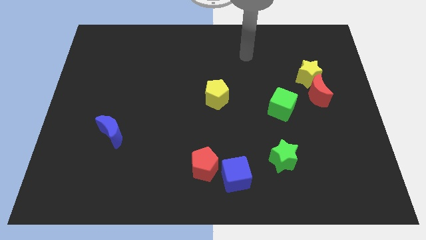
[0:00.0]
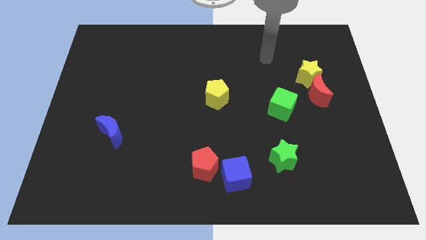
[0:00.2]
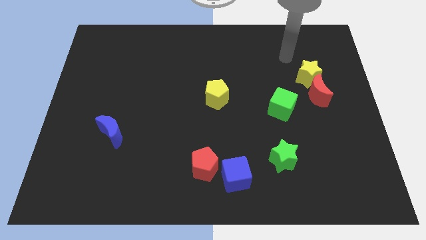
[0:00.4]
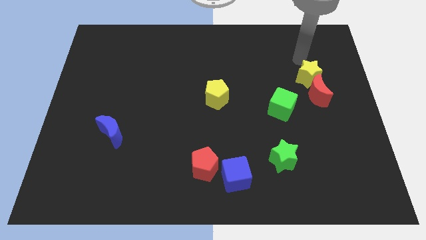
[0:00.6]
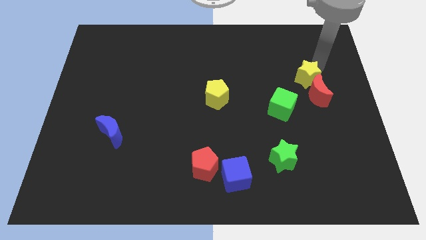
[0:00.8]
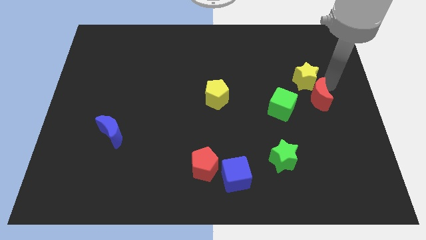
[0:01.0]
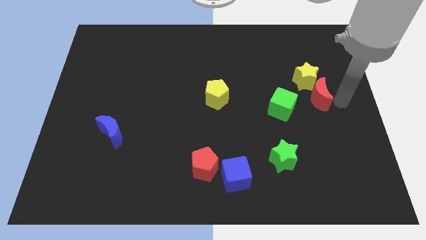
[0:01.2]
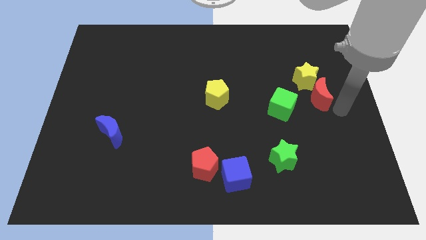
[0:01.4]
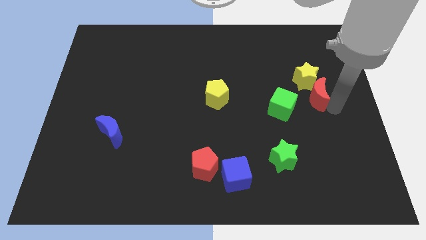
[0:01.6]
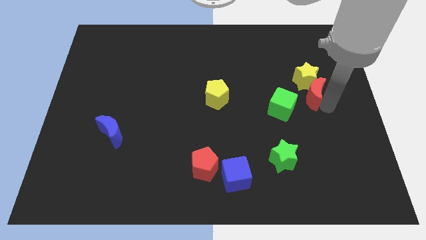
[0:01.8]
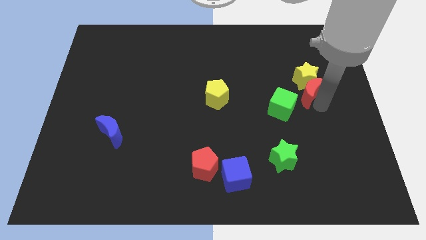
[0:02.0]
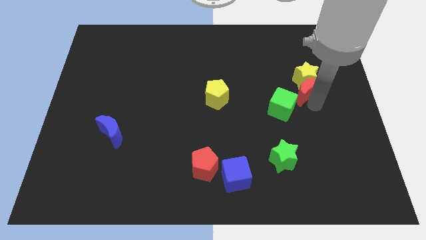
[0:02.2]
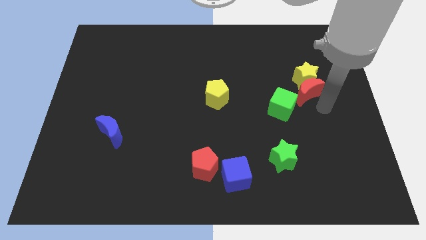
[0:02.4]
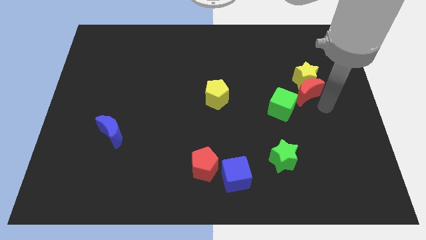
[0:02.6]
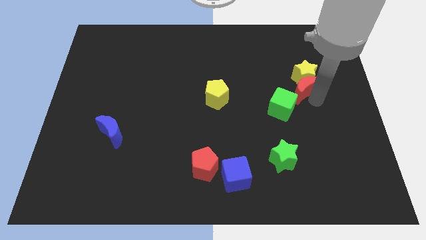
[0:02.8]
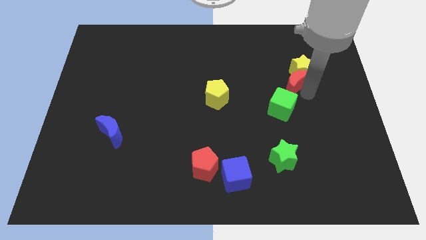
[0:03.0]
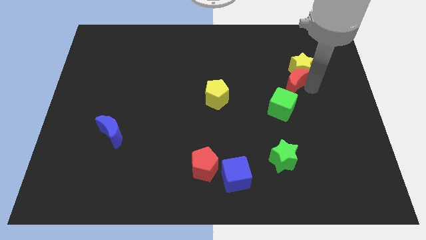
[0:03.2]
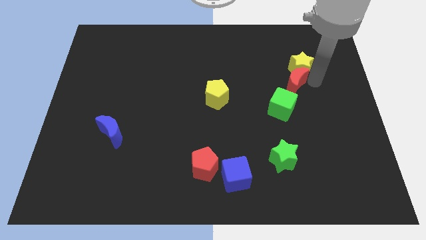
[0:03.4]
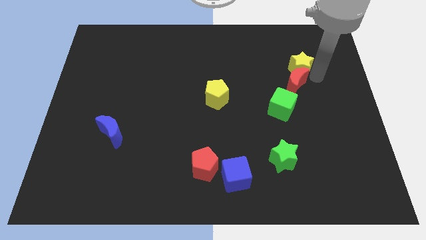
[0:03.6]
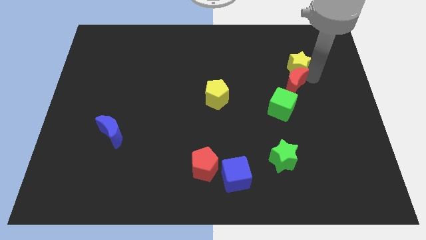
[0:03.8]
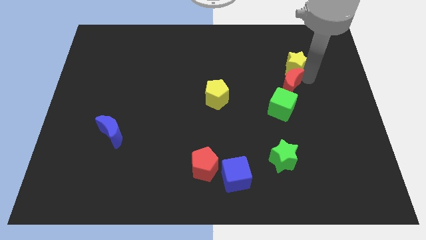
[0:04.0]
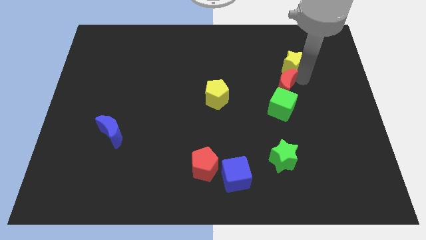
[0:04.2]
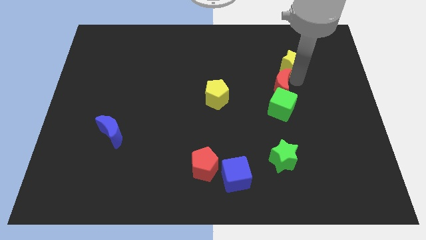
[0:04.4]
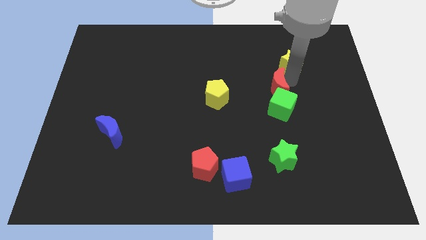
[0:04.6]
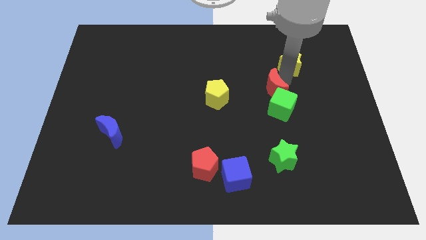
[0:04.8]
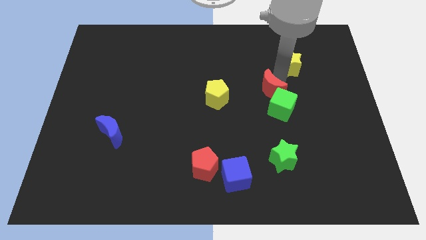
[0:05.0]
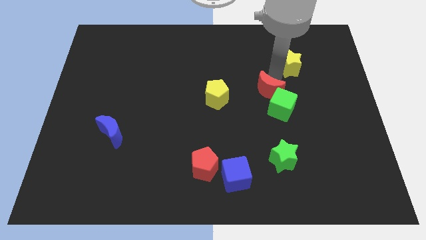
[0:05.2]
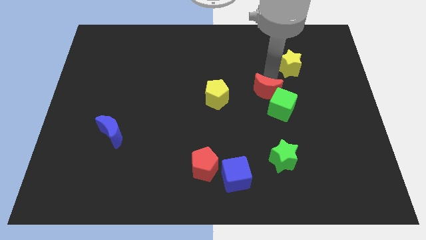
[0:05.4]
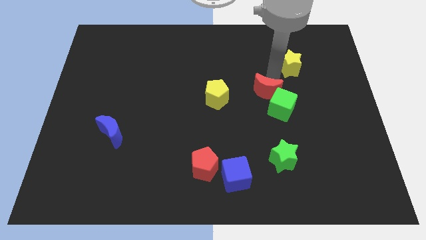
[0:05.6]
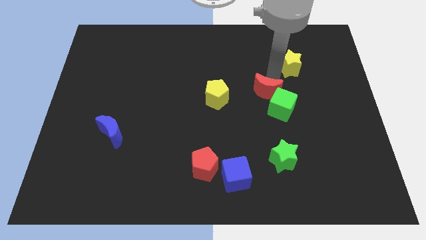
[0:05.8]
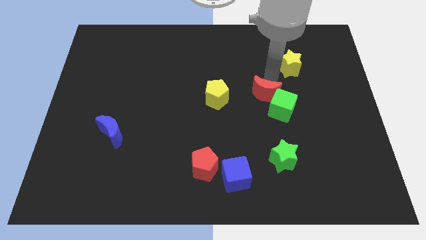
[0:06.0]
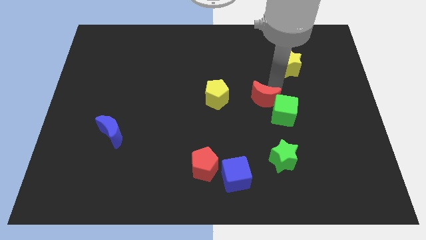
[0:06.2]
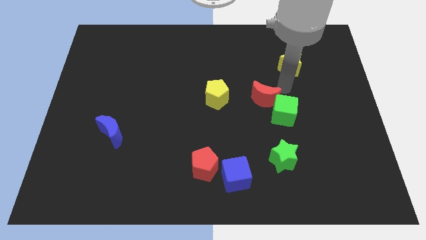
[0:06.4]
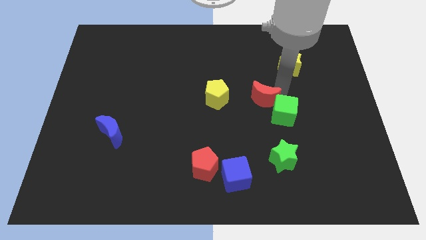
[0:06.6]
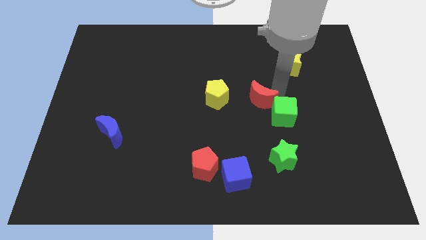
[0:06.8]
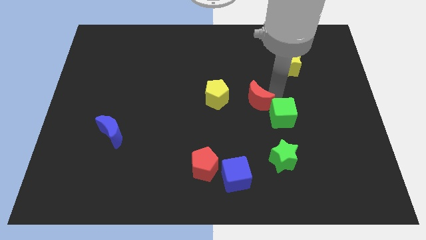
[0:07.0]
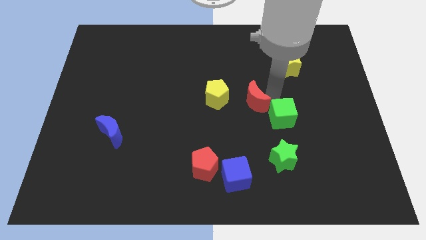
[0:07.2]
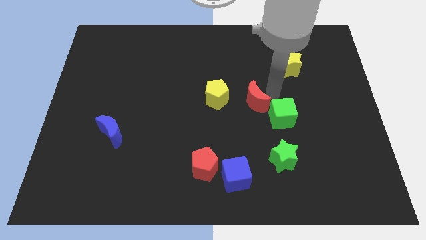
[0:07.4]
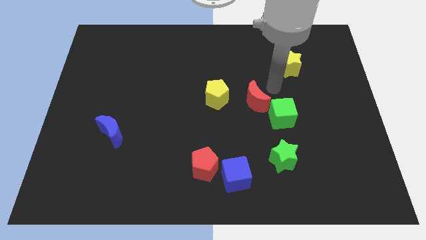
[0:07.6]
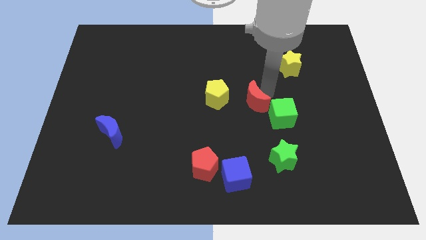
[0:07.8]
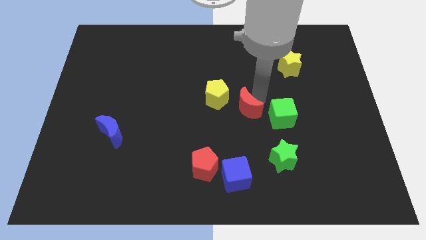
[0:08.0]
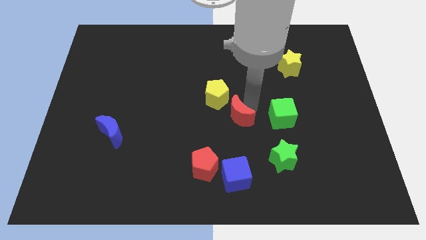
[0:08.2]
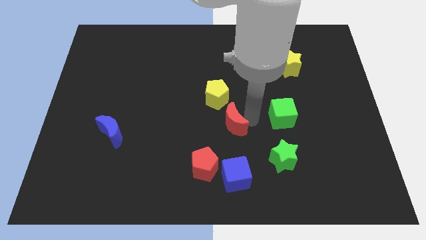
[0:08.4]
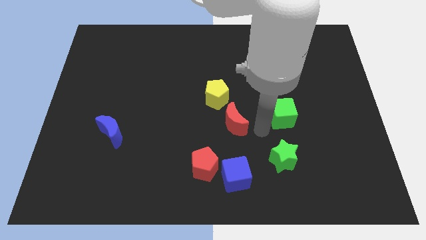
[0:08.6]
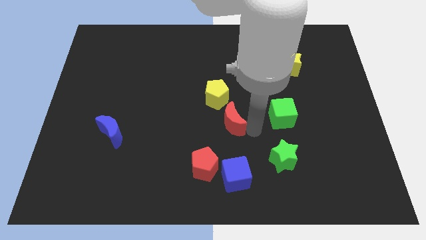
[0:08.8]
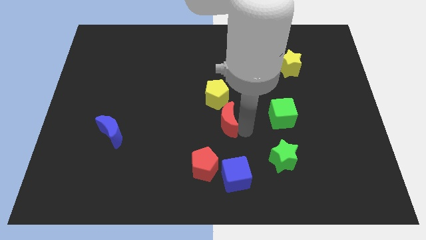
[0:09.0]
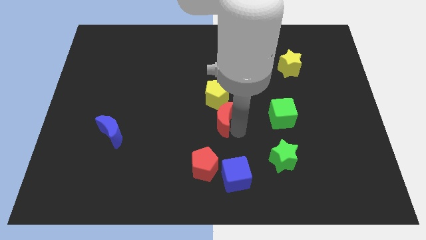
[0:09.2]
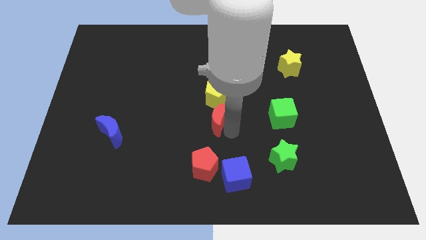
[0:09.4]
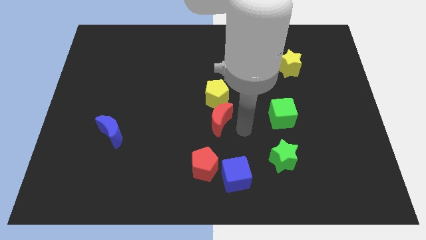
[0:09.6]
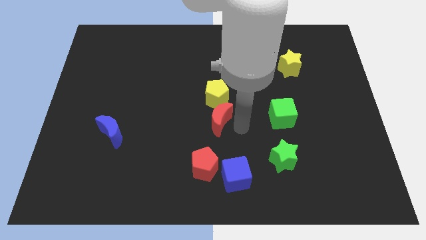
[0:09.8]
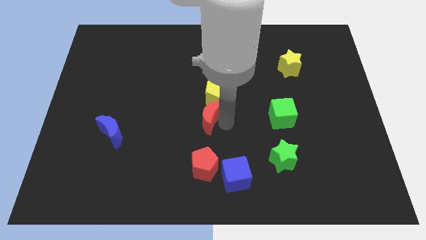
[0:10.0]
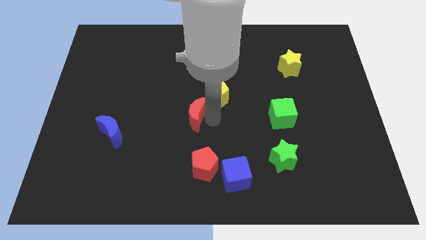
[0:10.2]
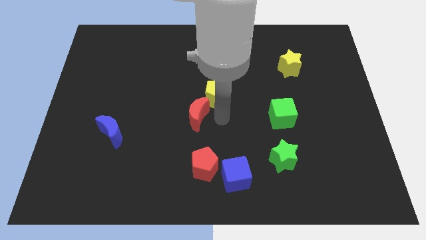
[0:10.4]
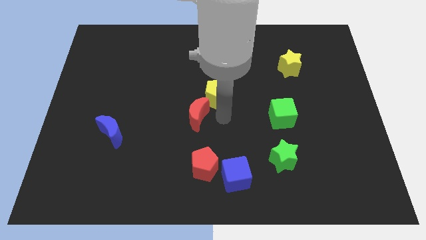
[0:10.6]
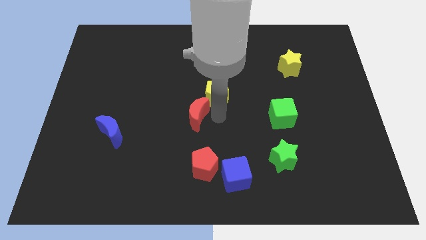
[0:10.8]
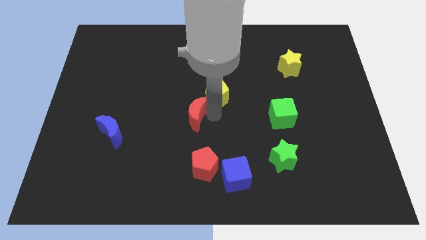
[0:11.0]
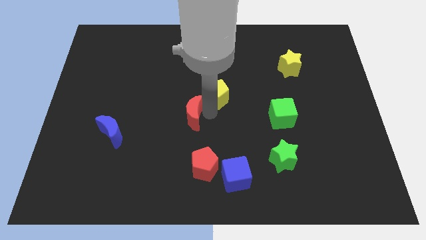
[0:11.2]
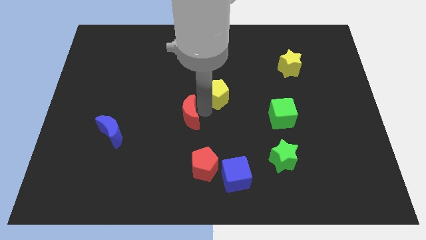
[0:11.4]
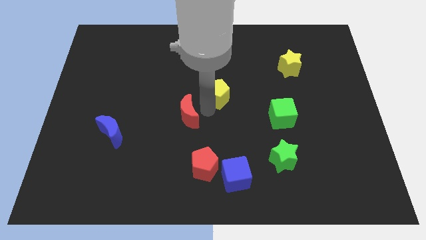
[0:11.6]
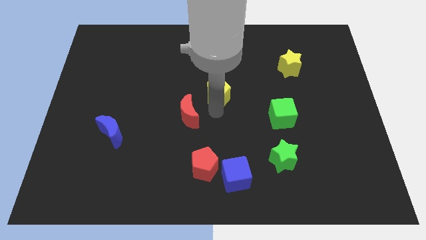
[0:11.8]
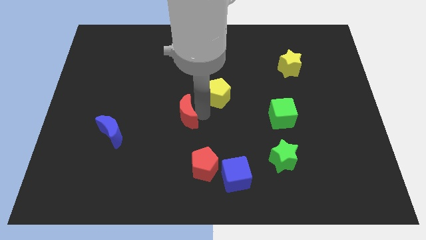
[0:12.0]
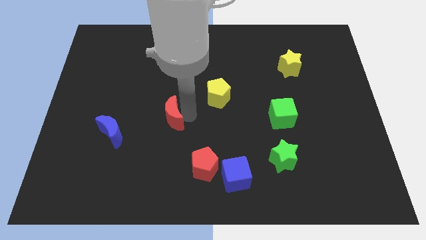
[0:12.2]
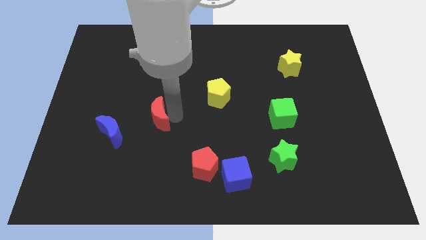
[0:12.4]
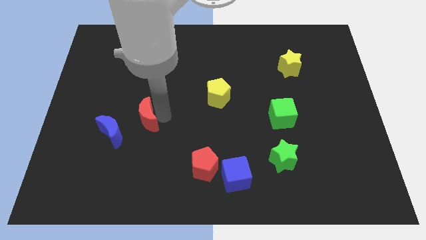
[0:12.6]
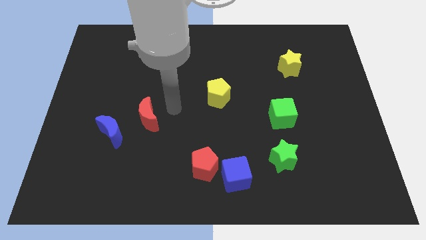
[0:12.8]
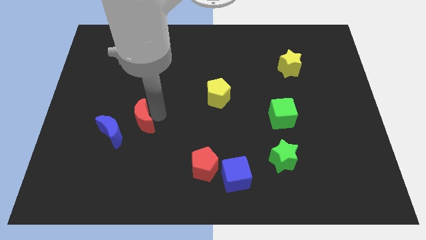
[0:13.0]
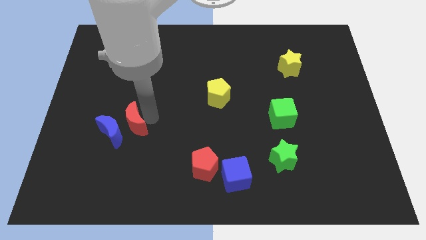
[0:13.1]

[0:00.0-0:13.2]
push the red moon to the blue moon
